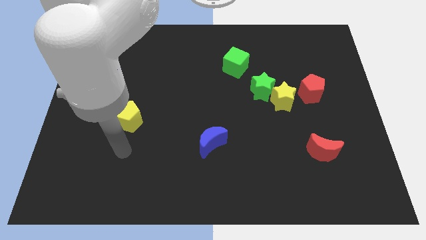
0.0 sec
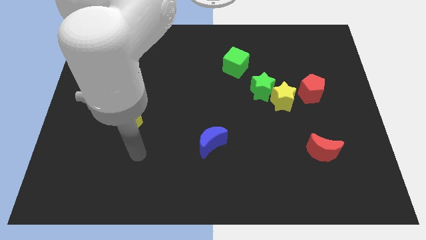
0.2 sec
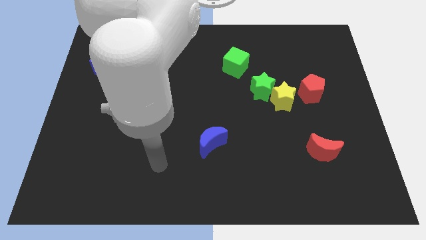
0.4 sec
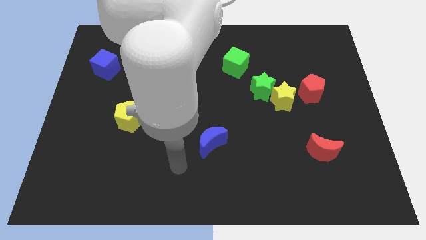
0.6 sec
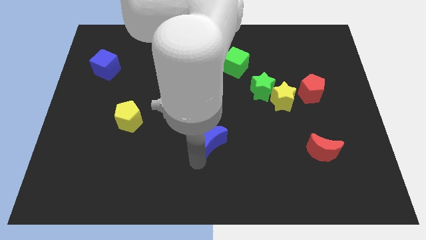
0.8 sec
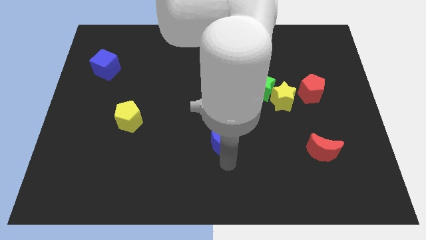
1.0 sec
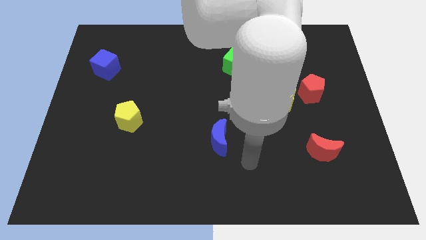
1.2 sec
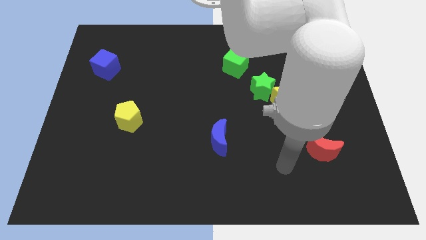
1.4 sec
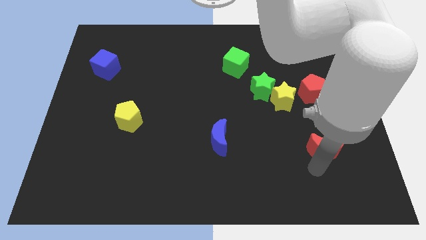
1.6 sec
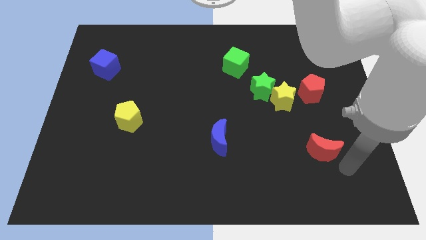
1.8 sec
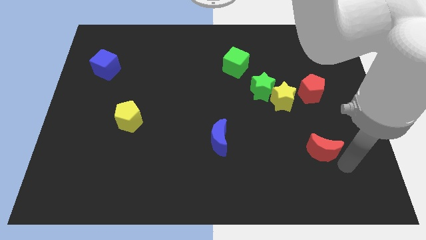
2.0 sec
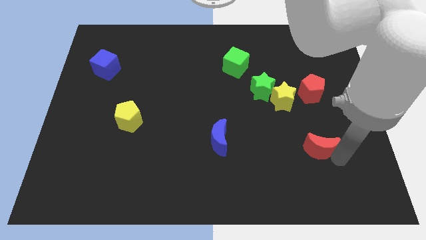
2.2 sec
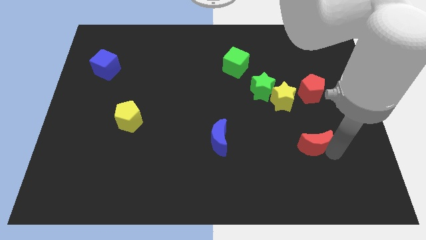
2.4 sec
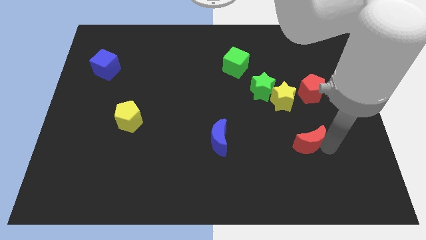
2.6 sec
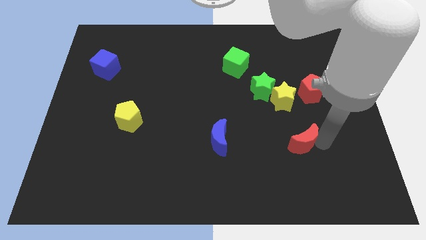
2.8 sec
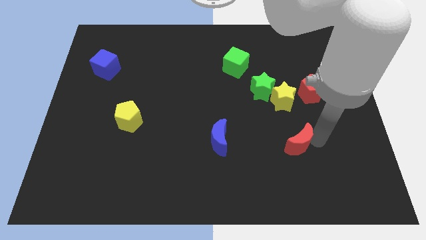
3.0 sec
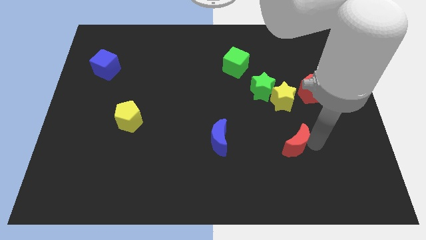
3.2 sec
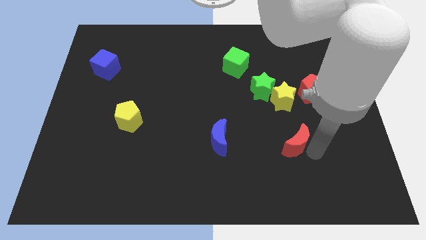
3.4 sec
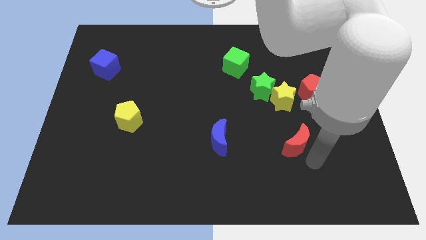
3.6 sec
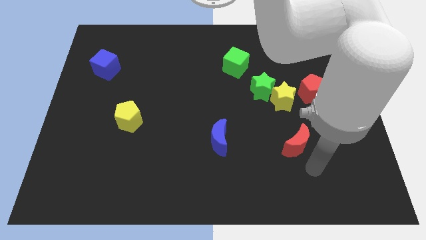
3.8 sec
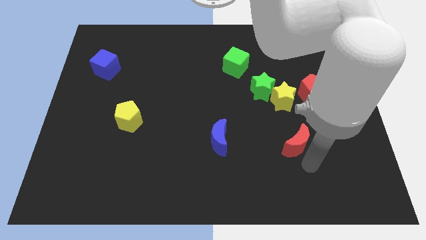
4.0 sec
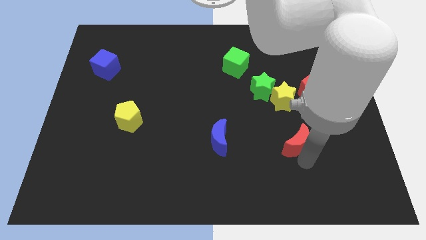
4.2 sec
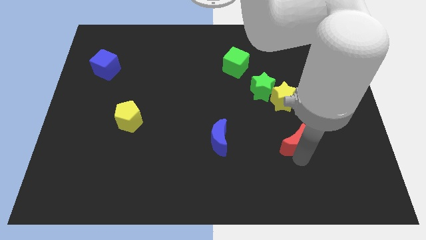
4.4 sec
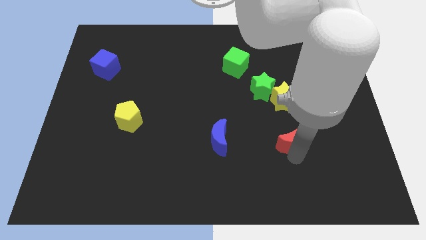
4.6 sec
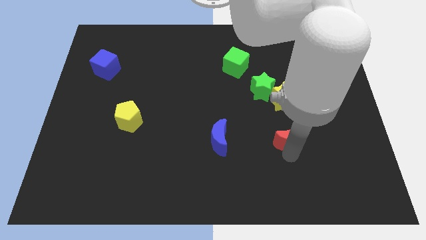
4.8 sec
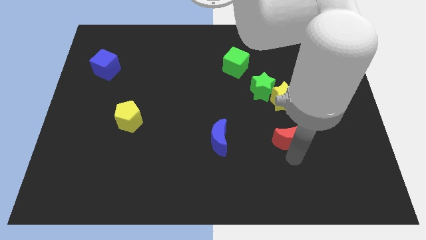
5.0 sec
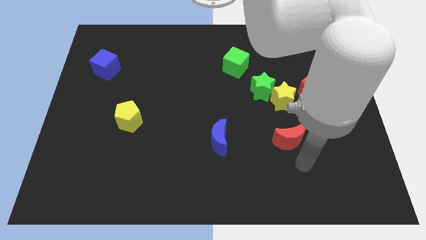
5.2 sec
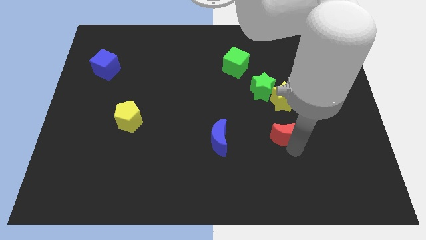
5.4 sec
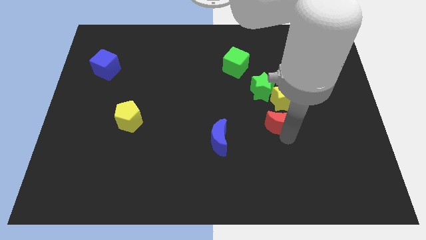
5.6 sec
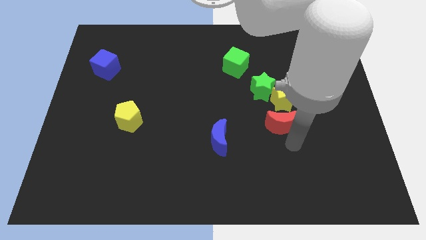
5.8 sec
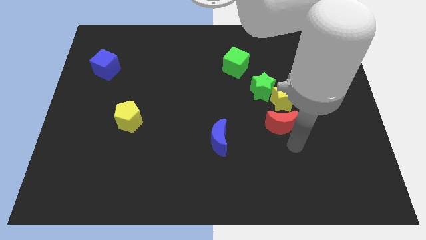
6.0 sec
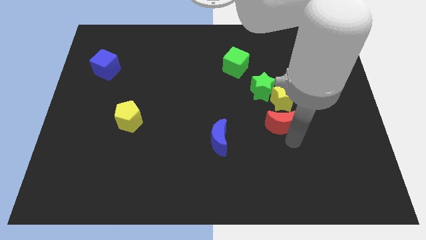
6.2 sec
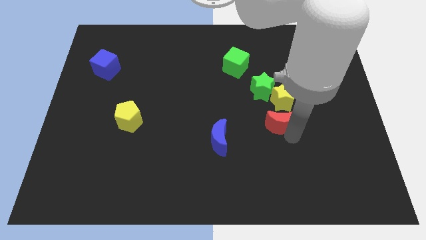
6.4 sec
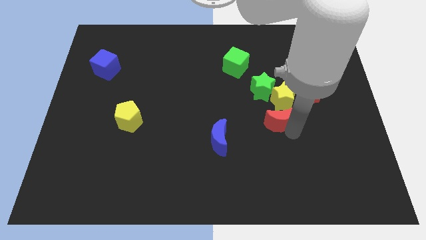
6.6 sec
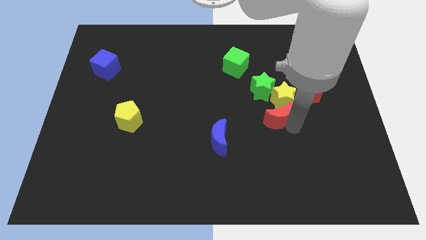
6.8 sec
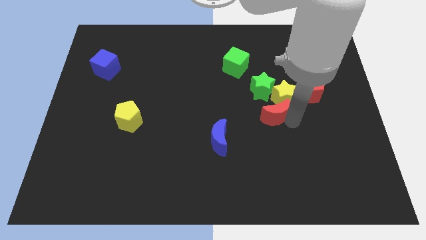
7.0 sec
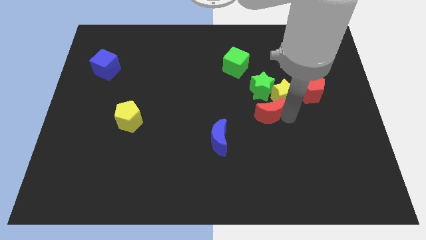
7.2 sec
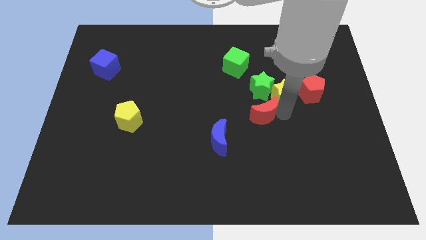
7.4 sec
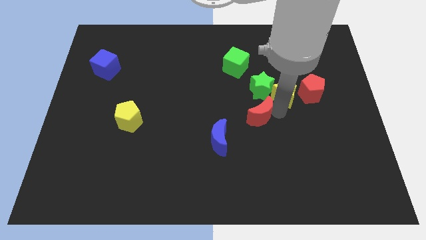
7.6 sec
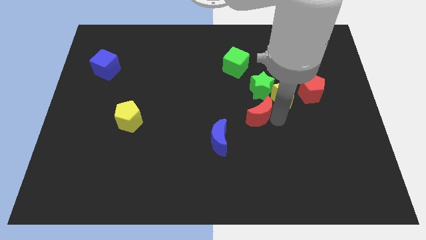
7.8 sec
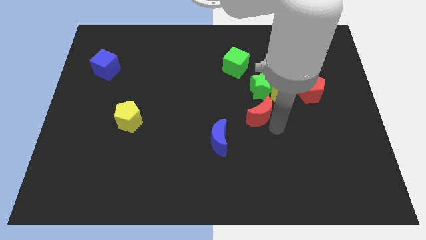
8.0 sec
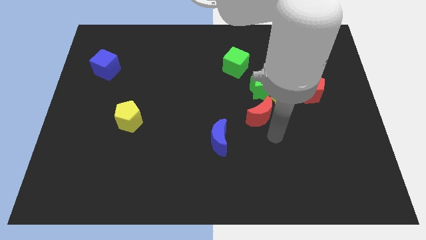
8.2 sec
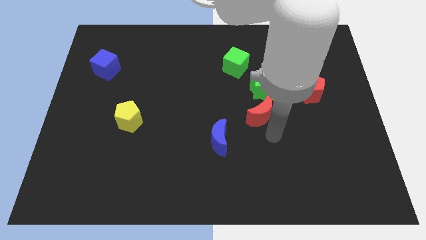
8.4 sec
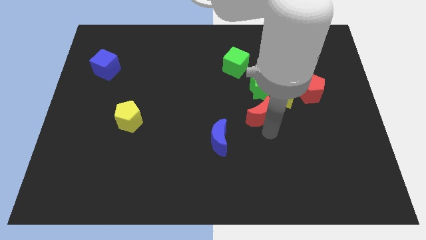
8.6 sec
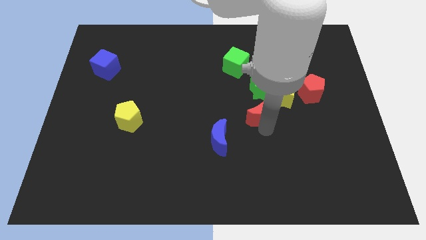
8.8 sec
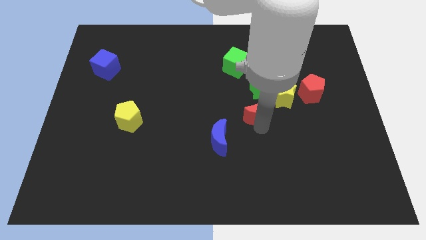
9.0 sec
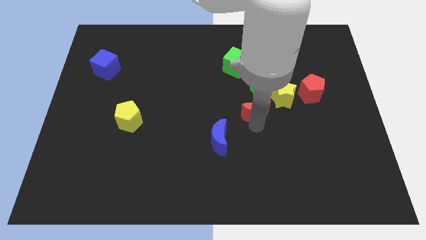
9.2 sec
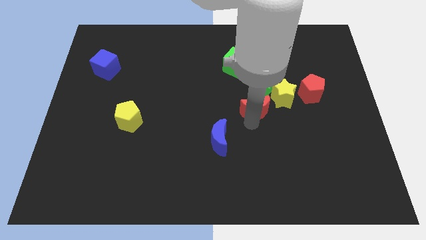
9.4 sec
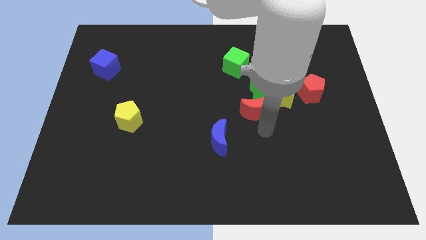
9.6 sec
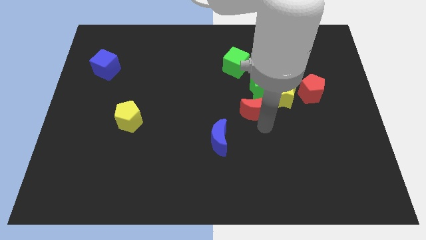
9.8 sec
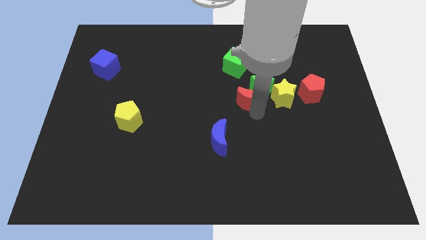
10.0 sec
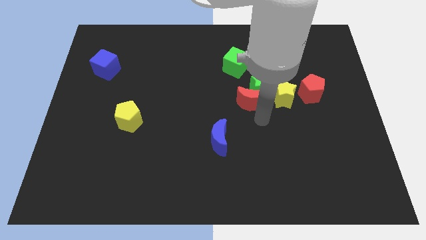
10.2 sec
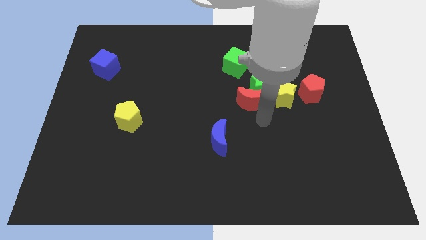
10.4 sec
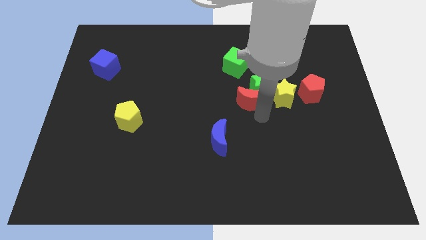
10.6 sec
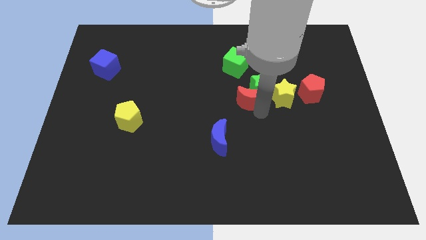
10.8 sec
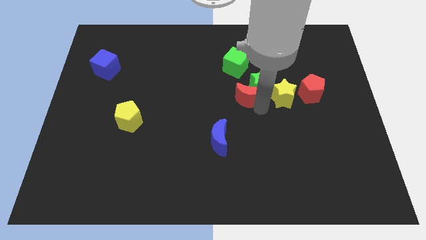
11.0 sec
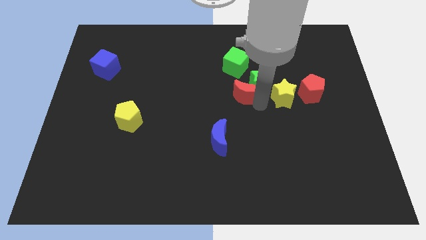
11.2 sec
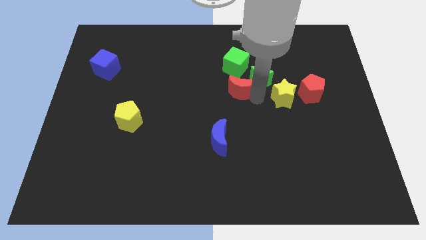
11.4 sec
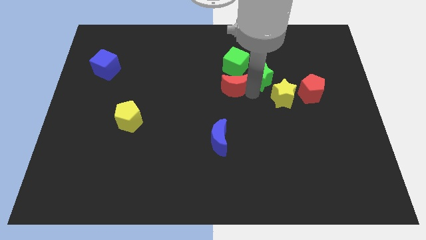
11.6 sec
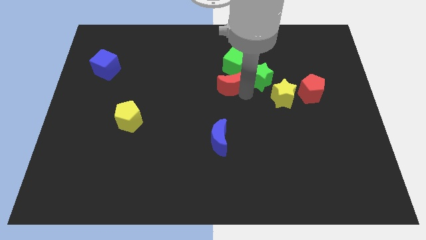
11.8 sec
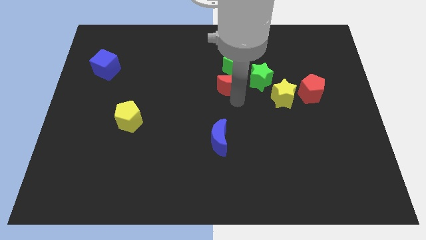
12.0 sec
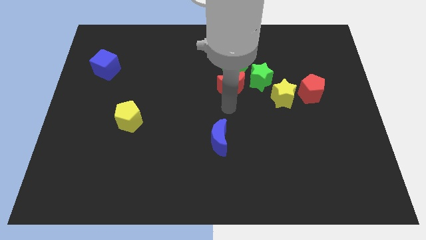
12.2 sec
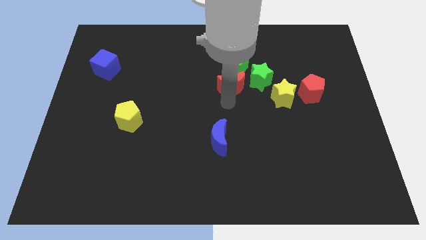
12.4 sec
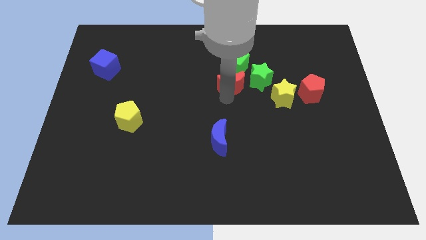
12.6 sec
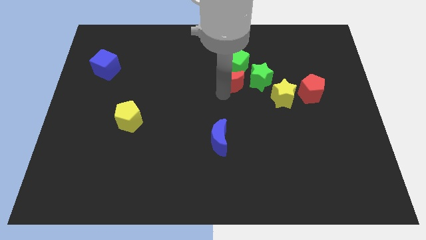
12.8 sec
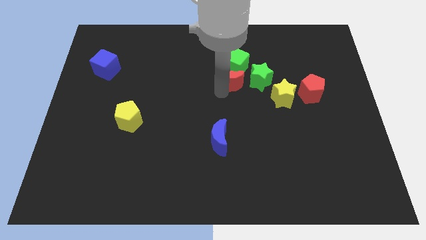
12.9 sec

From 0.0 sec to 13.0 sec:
slide the red moon next to the green cube

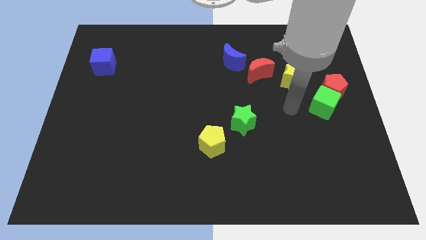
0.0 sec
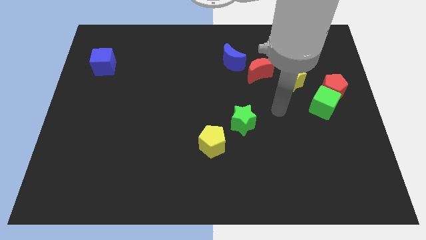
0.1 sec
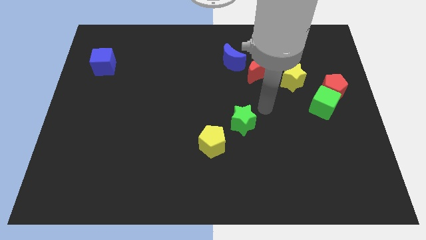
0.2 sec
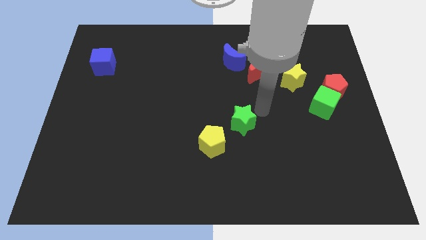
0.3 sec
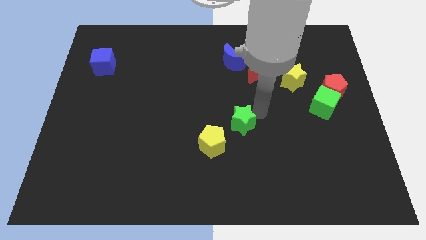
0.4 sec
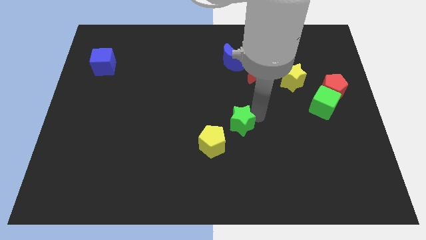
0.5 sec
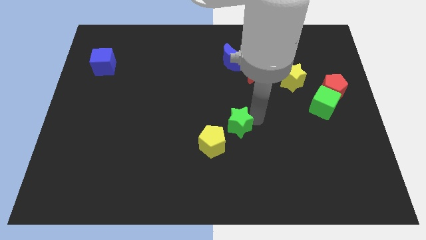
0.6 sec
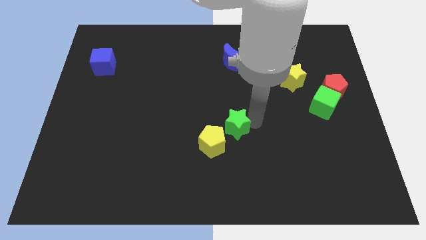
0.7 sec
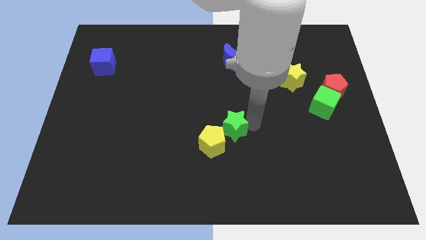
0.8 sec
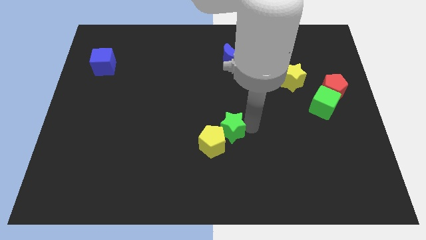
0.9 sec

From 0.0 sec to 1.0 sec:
slide the green star close to the yellow pentagon
